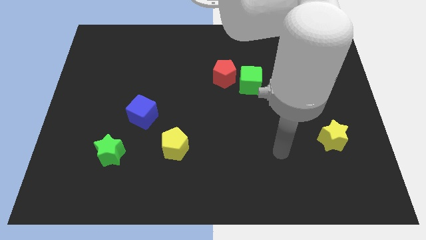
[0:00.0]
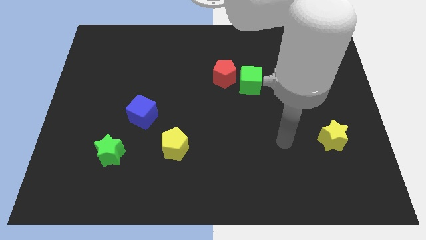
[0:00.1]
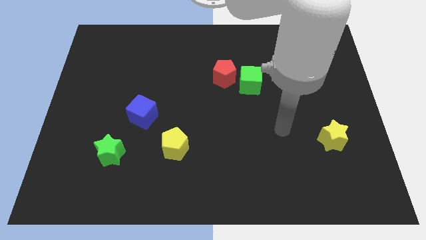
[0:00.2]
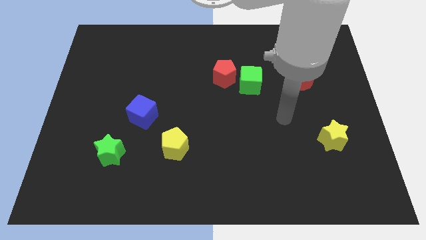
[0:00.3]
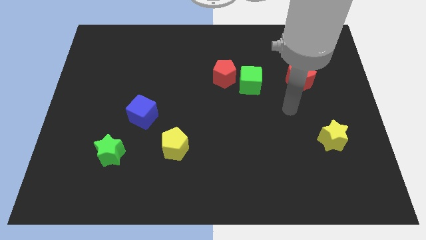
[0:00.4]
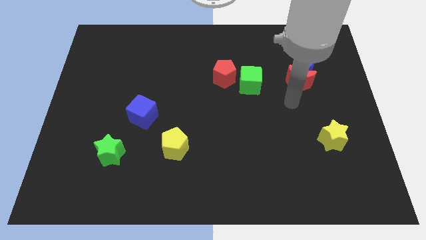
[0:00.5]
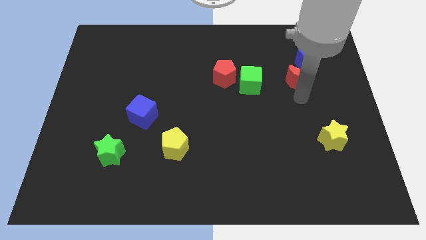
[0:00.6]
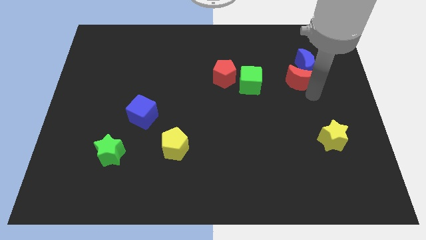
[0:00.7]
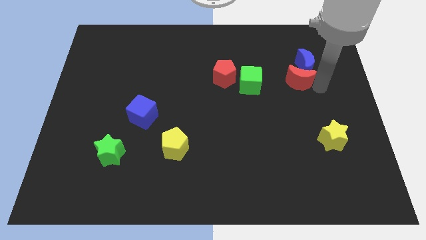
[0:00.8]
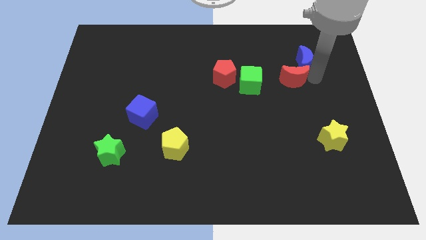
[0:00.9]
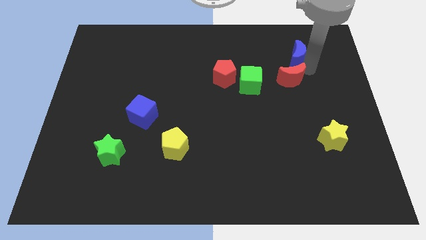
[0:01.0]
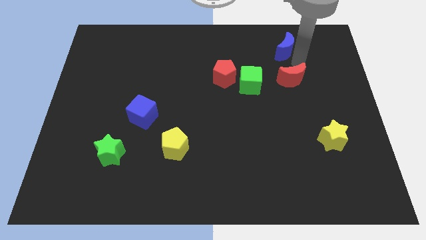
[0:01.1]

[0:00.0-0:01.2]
pull the red moon apart from the blue moon

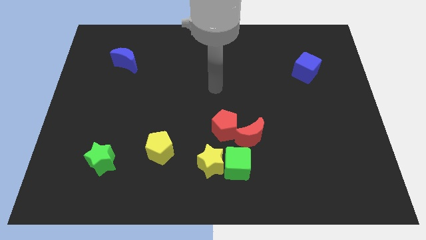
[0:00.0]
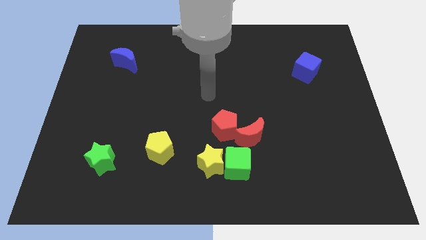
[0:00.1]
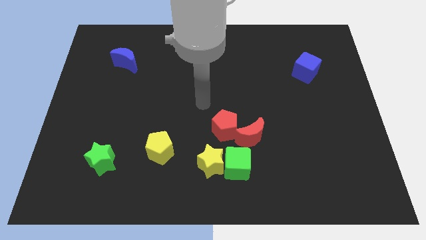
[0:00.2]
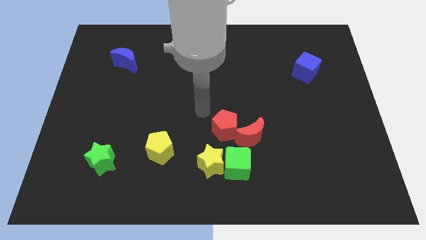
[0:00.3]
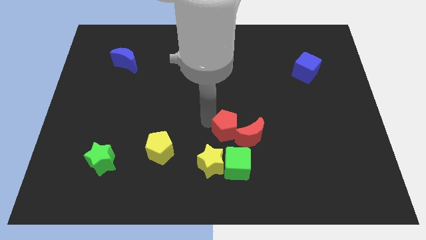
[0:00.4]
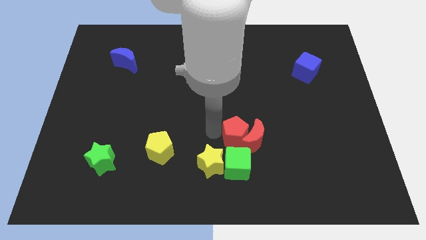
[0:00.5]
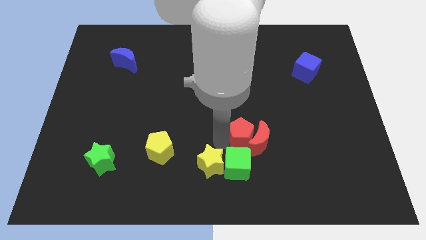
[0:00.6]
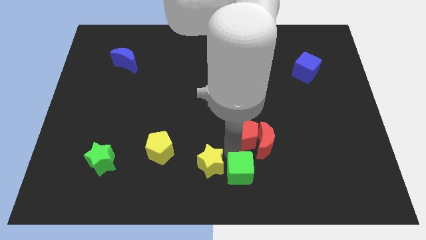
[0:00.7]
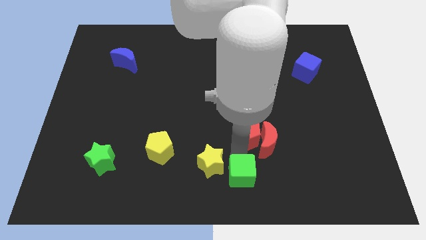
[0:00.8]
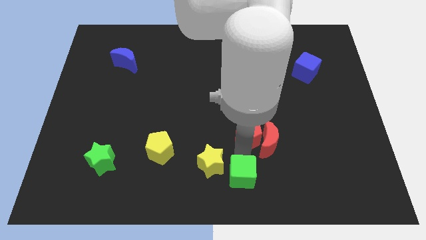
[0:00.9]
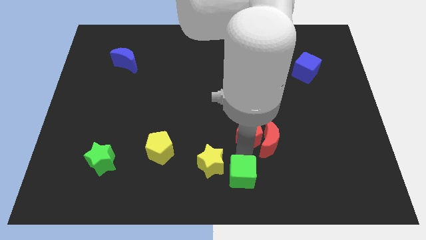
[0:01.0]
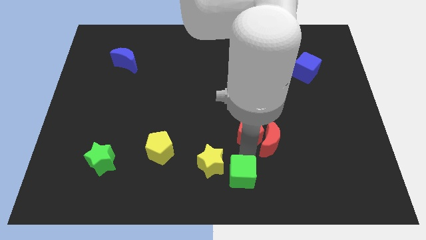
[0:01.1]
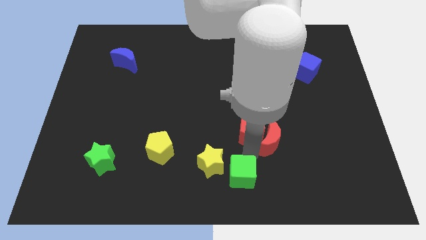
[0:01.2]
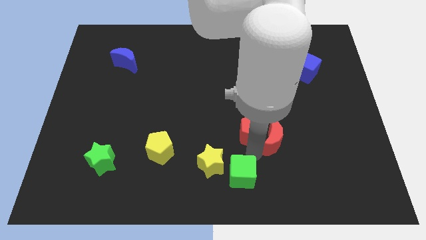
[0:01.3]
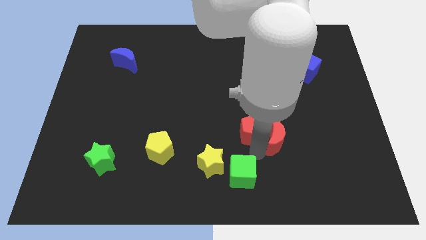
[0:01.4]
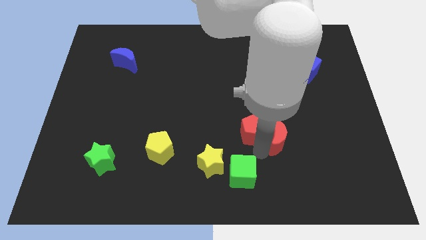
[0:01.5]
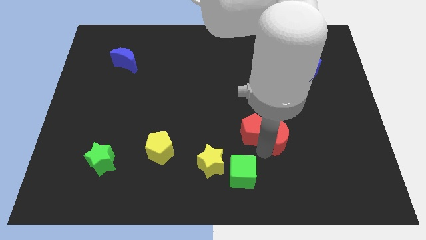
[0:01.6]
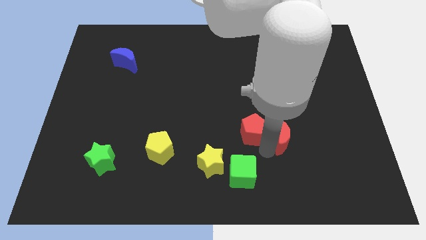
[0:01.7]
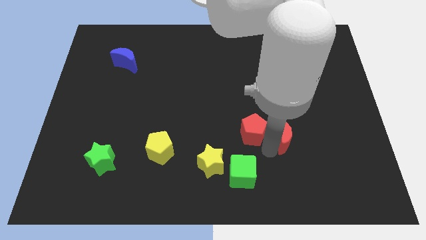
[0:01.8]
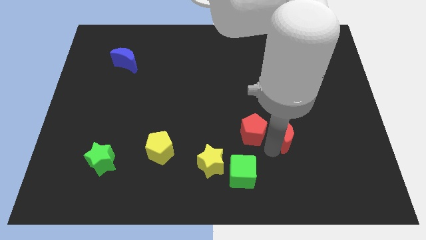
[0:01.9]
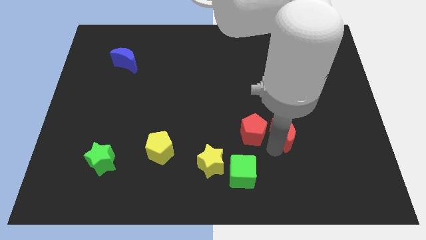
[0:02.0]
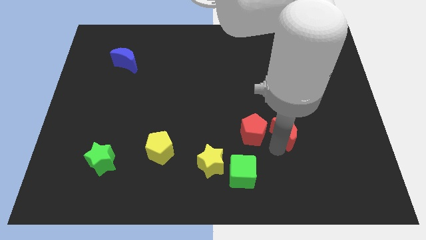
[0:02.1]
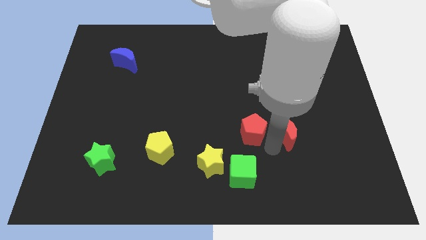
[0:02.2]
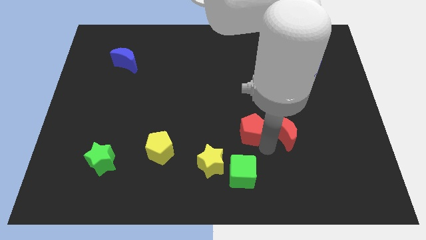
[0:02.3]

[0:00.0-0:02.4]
pull the red moon apart from the red pentagon and green cube

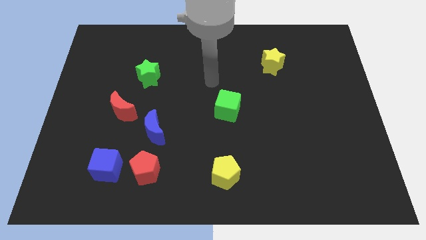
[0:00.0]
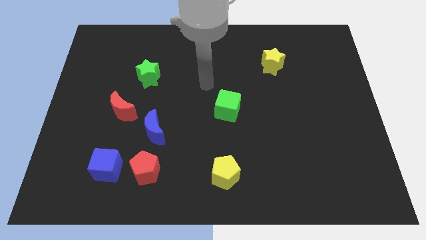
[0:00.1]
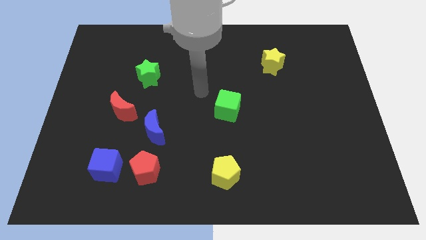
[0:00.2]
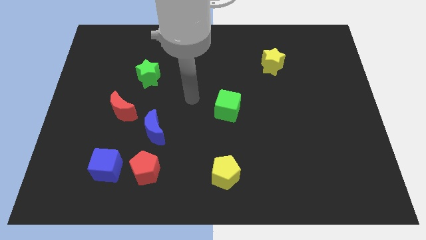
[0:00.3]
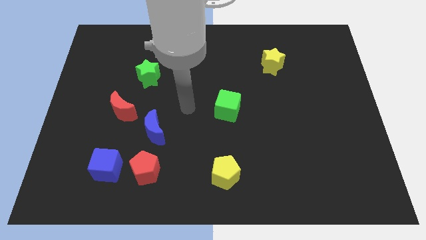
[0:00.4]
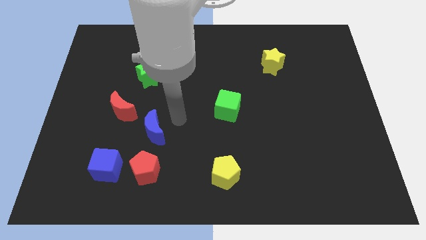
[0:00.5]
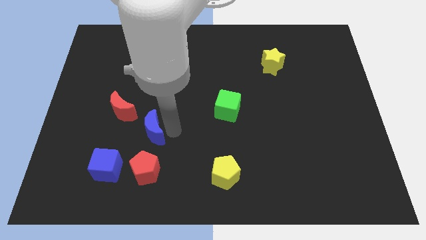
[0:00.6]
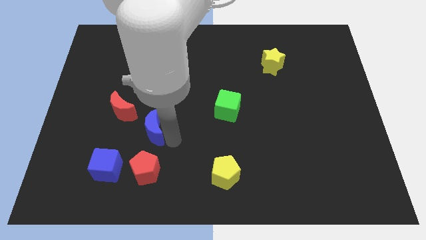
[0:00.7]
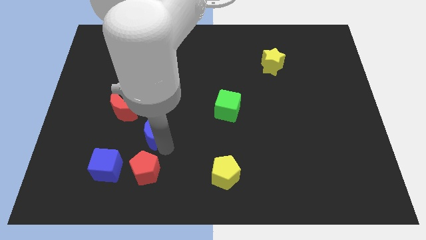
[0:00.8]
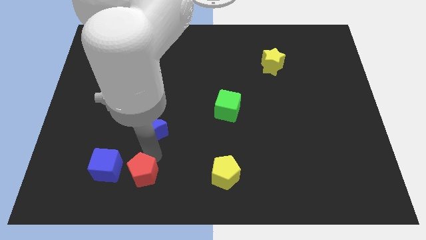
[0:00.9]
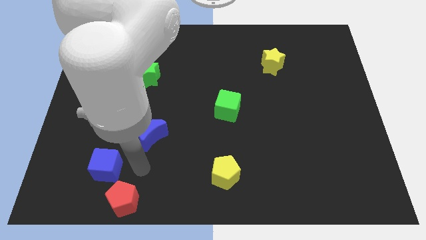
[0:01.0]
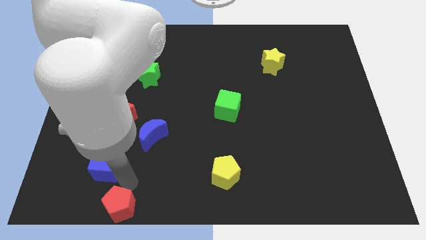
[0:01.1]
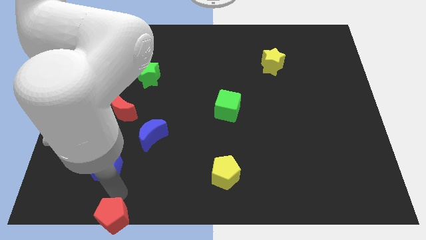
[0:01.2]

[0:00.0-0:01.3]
pull the blue cube apart from the red pentagon

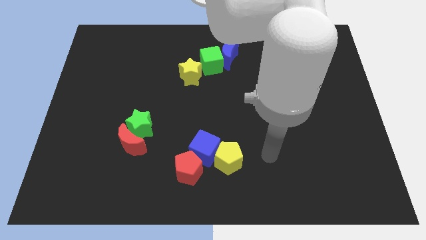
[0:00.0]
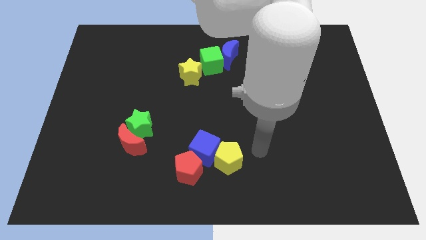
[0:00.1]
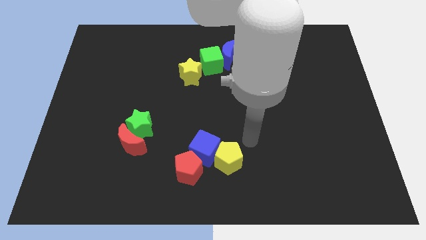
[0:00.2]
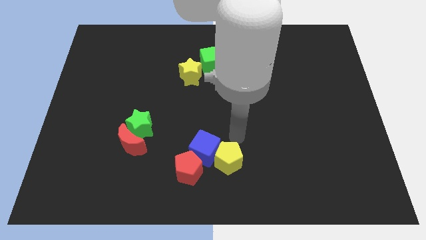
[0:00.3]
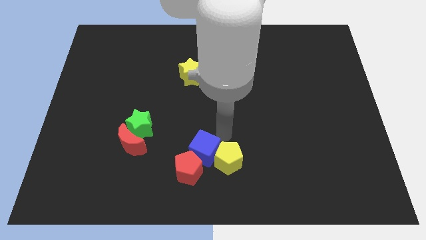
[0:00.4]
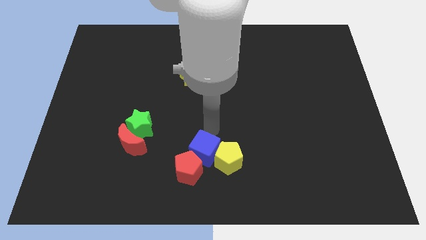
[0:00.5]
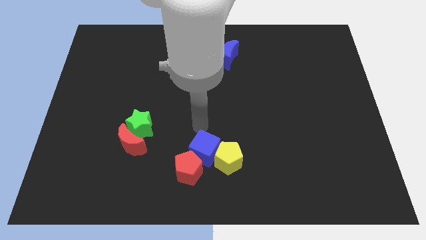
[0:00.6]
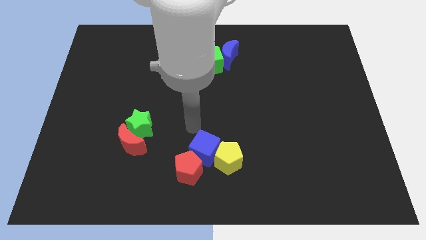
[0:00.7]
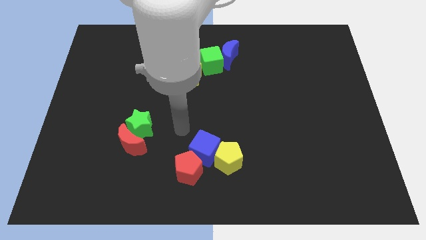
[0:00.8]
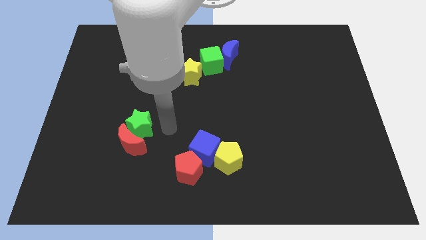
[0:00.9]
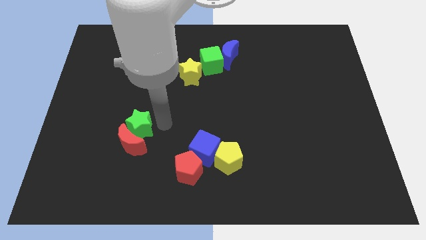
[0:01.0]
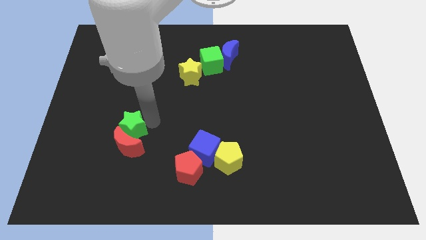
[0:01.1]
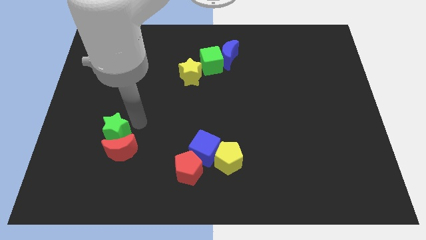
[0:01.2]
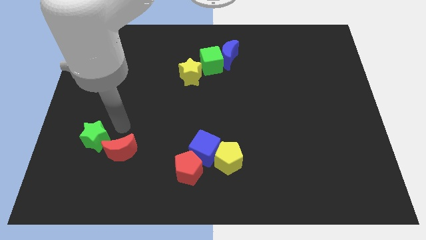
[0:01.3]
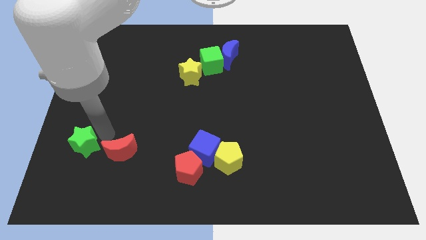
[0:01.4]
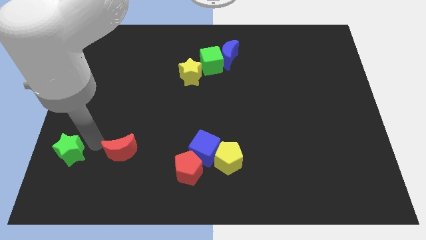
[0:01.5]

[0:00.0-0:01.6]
move the red moon away from the green star

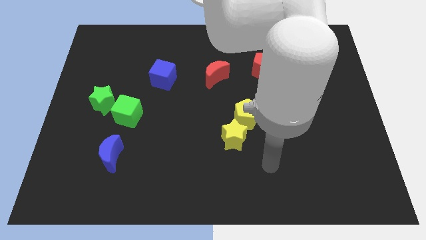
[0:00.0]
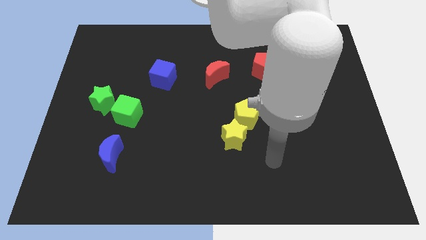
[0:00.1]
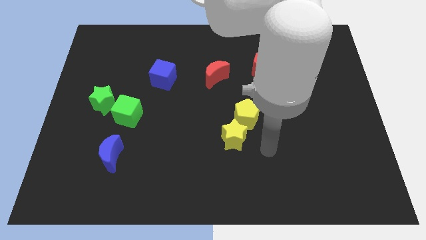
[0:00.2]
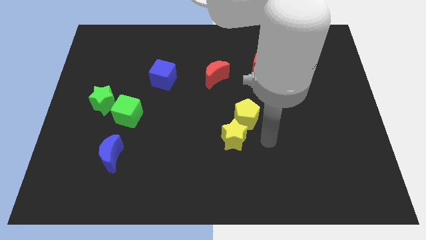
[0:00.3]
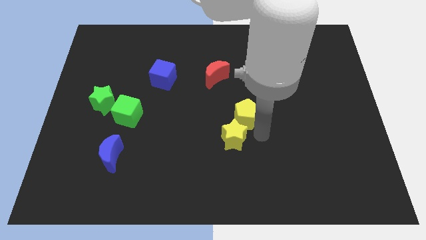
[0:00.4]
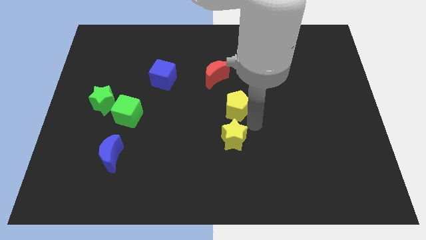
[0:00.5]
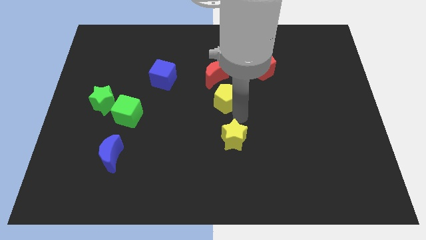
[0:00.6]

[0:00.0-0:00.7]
pull the yellow star apart from the yellow pentagon

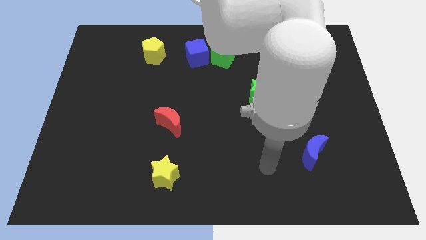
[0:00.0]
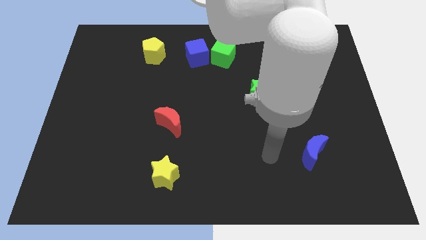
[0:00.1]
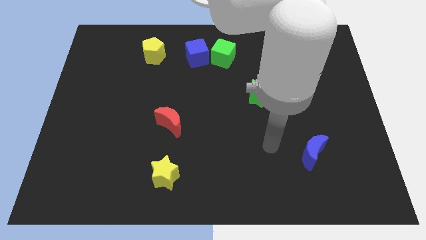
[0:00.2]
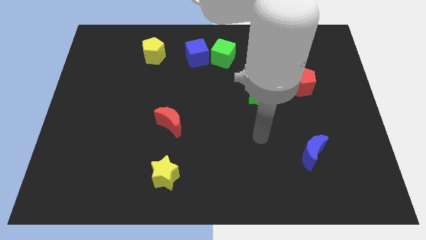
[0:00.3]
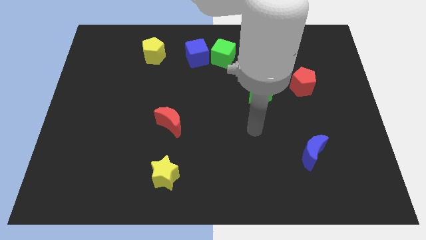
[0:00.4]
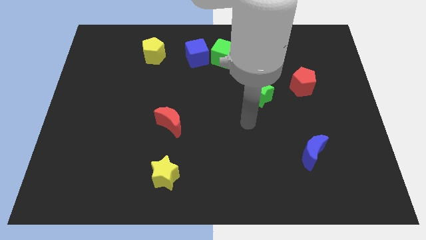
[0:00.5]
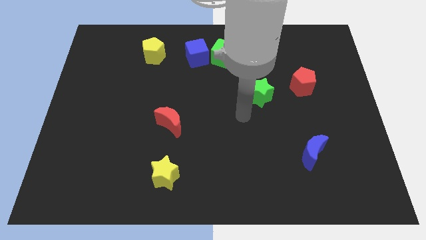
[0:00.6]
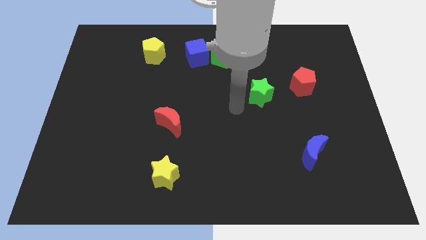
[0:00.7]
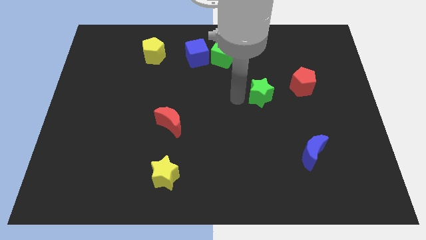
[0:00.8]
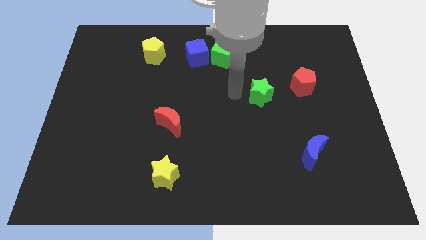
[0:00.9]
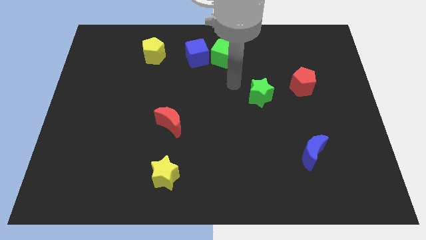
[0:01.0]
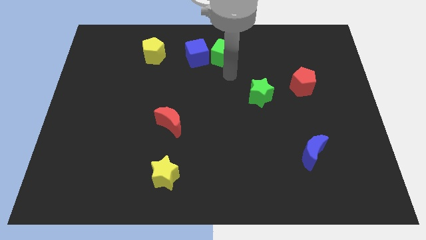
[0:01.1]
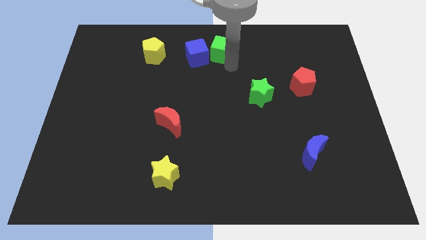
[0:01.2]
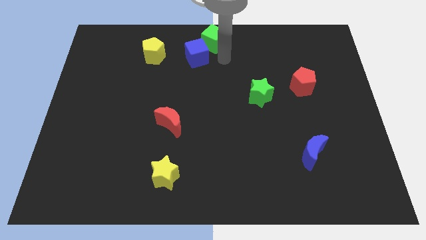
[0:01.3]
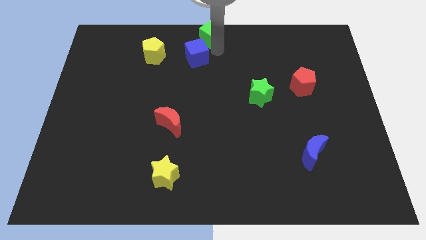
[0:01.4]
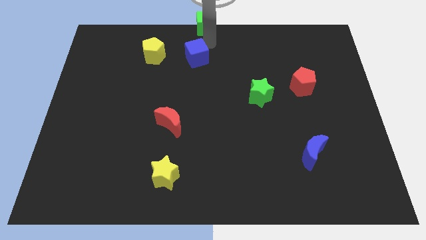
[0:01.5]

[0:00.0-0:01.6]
move the blue cube away from the green cube

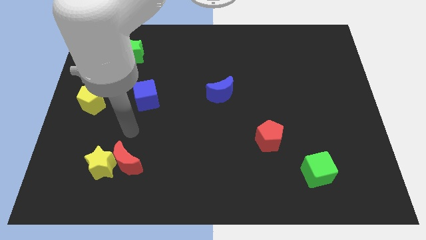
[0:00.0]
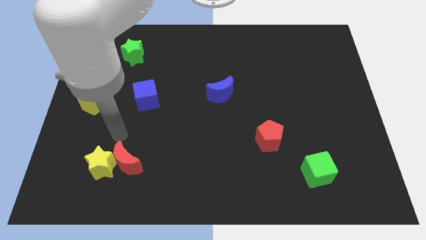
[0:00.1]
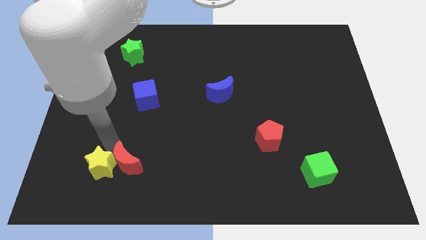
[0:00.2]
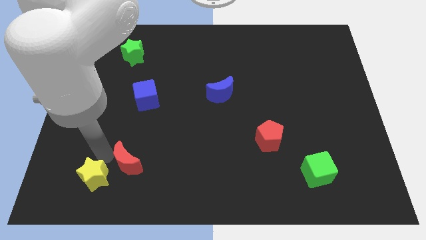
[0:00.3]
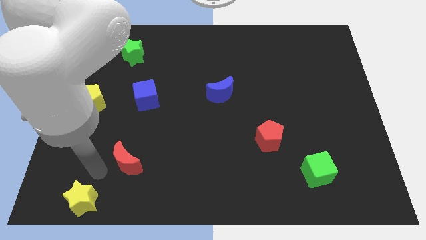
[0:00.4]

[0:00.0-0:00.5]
pull the red moon apart from the yellow star
